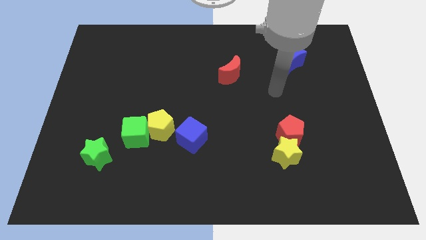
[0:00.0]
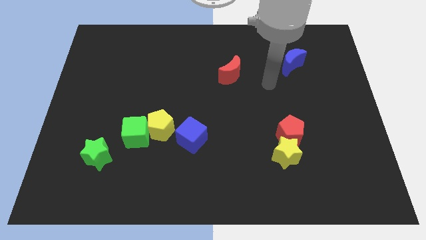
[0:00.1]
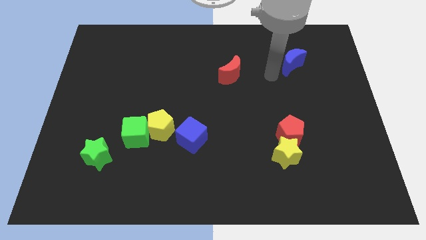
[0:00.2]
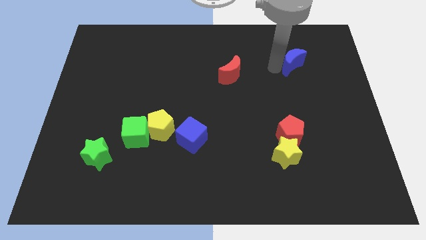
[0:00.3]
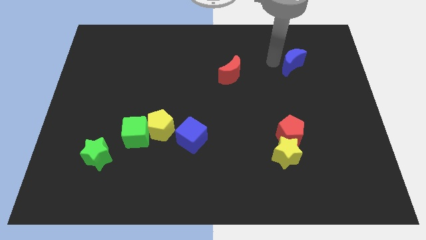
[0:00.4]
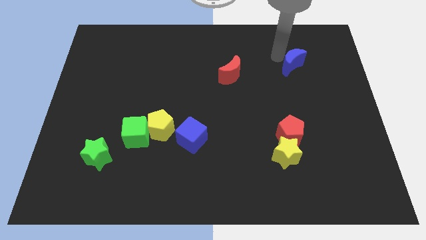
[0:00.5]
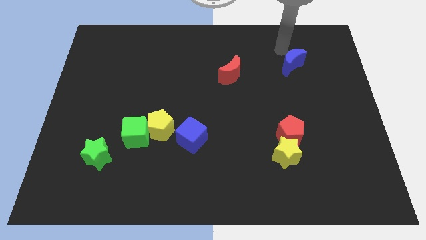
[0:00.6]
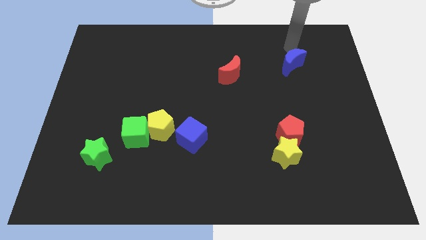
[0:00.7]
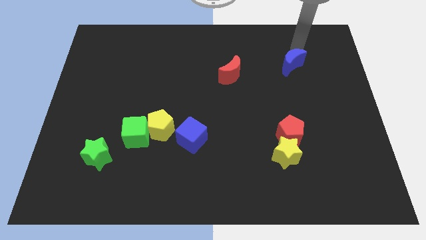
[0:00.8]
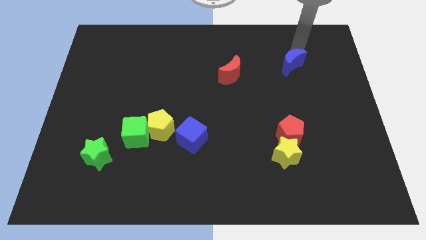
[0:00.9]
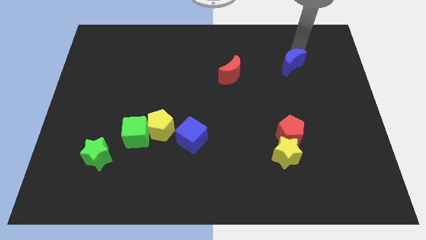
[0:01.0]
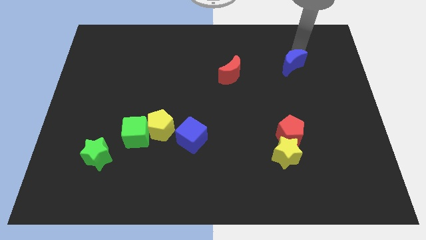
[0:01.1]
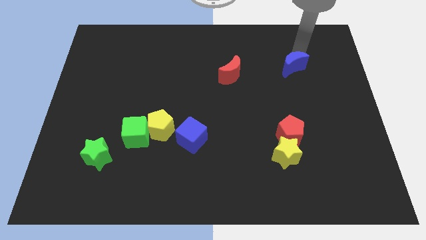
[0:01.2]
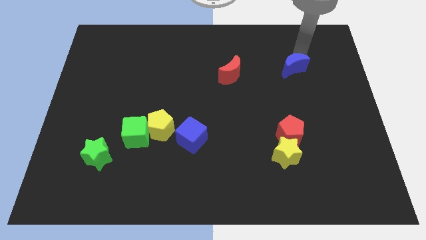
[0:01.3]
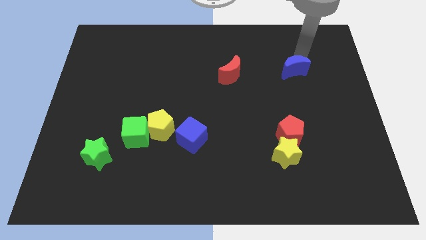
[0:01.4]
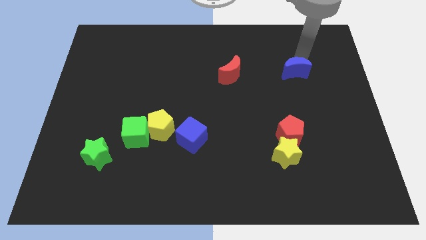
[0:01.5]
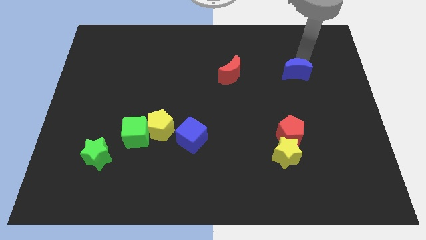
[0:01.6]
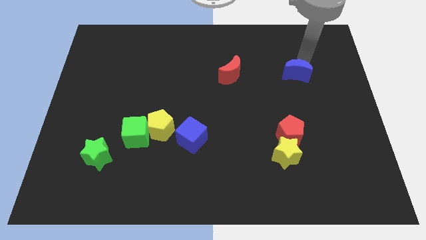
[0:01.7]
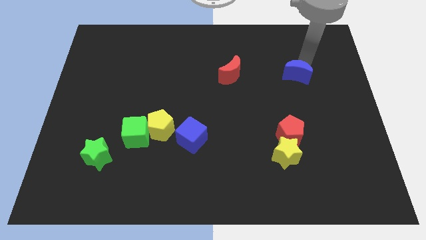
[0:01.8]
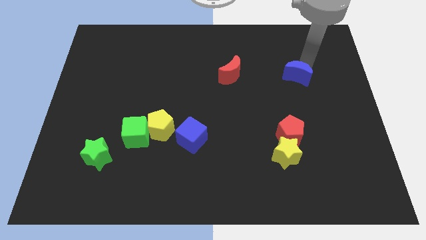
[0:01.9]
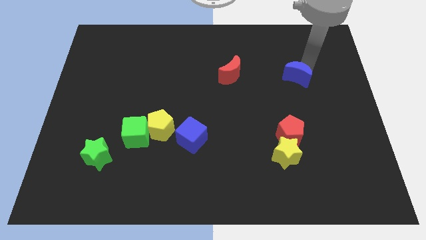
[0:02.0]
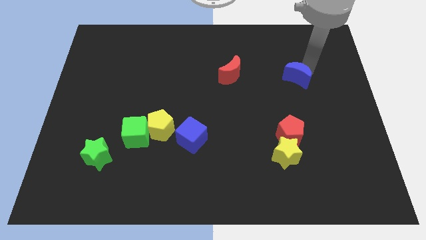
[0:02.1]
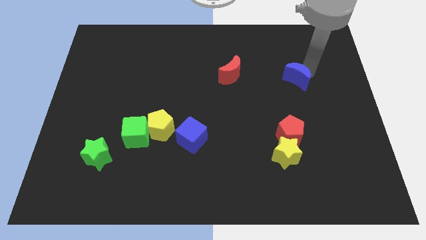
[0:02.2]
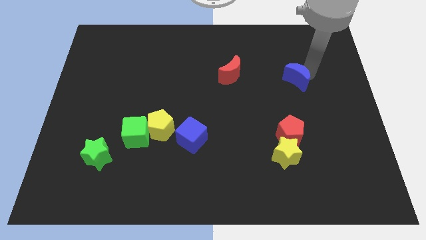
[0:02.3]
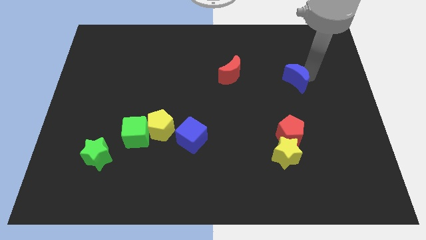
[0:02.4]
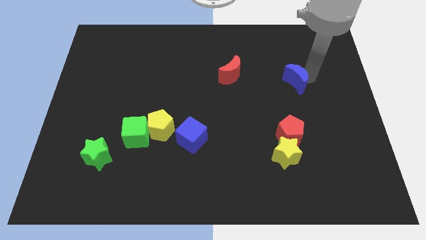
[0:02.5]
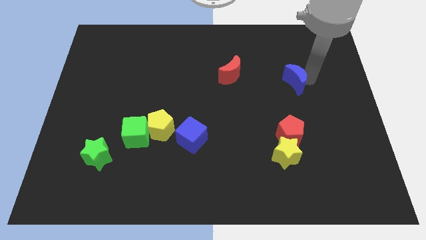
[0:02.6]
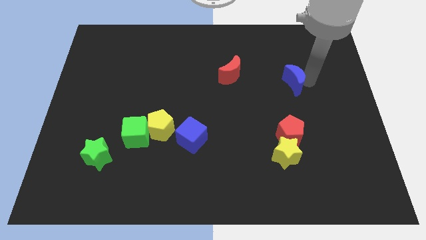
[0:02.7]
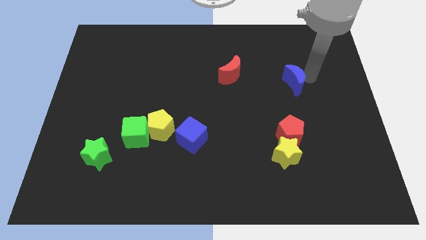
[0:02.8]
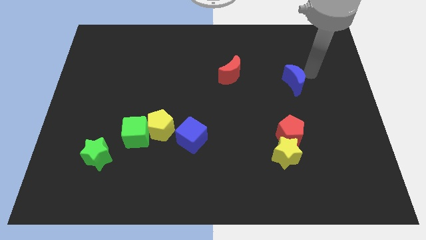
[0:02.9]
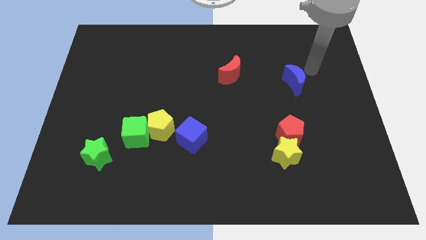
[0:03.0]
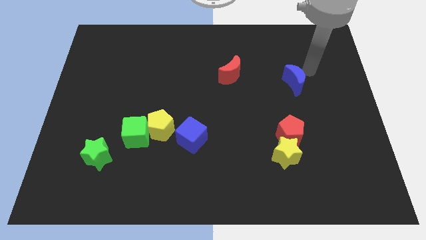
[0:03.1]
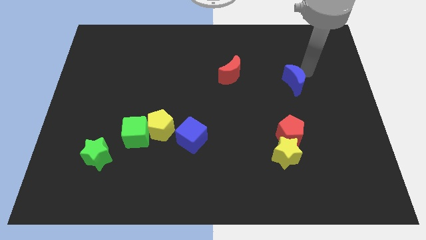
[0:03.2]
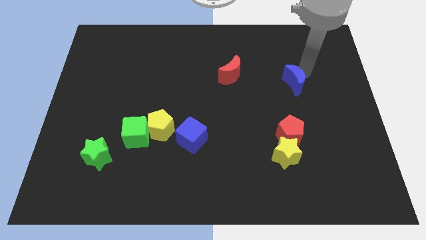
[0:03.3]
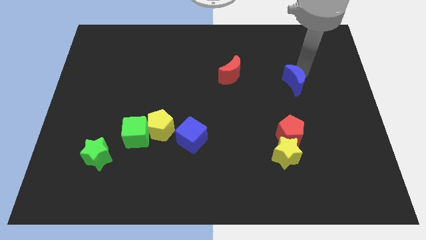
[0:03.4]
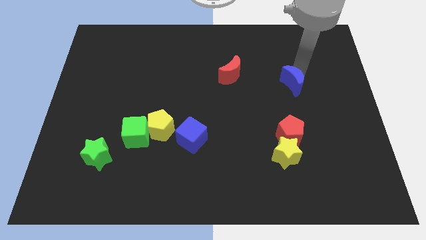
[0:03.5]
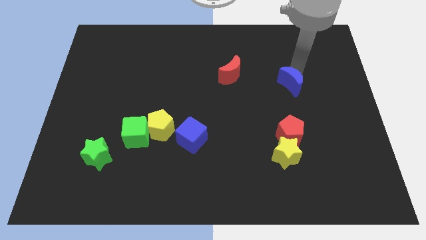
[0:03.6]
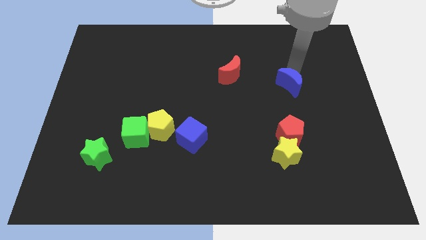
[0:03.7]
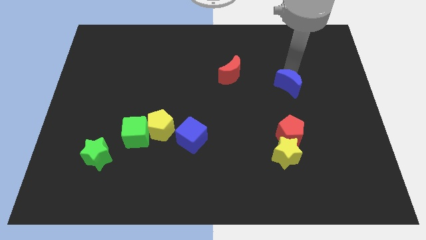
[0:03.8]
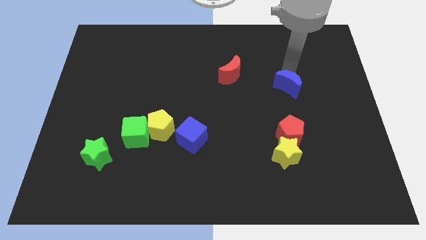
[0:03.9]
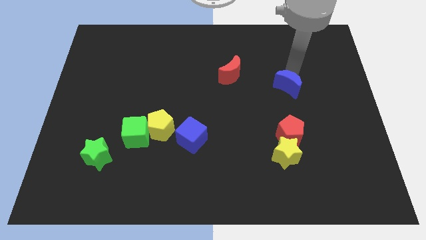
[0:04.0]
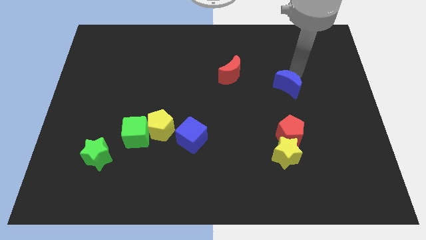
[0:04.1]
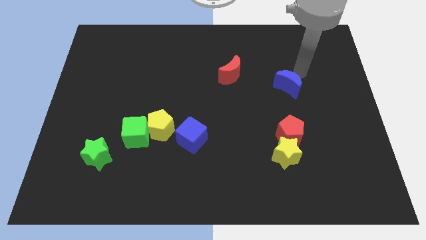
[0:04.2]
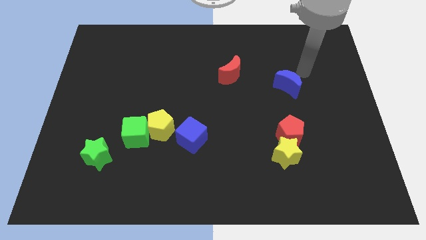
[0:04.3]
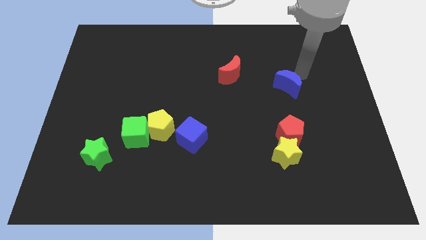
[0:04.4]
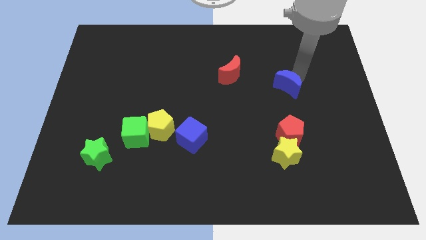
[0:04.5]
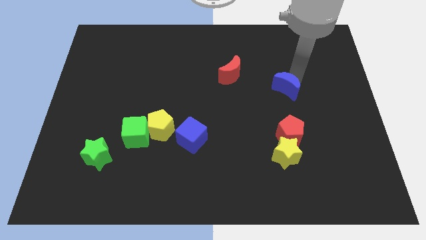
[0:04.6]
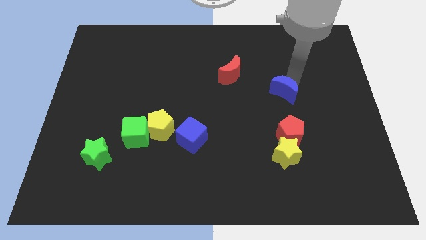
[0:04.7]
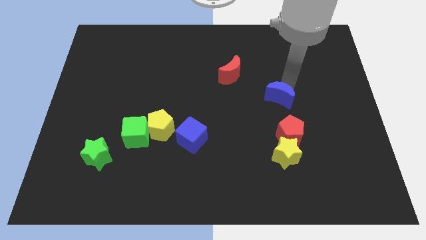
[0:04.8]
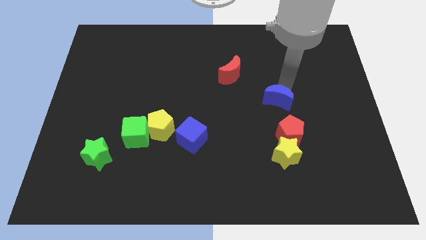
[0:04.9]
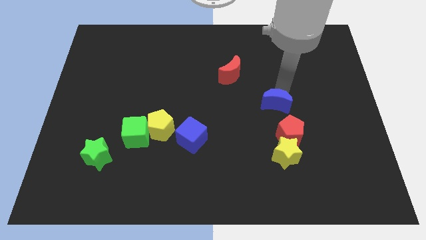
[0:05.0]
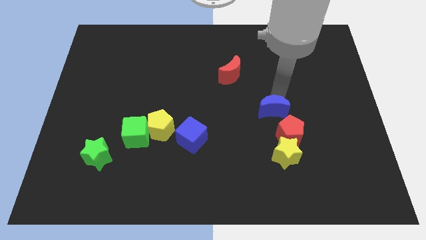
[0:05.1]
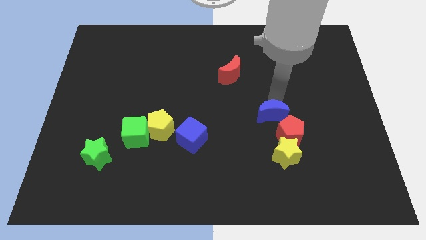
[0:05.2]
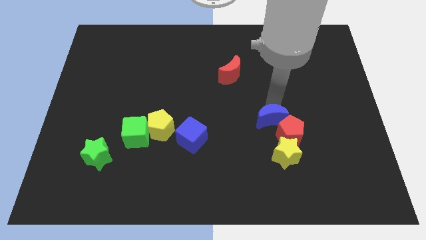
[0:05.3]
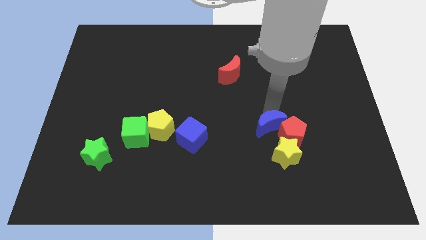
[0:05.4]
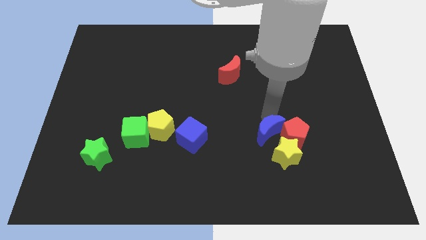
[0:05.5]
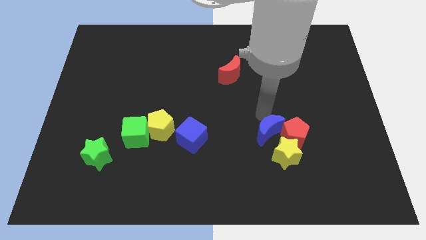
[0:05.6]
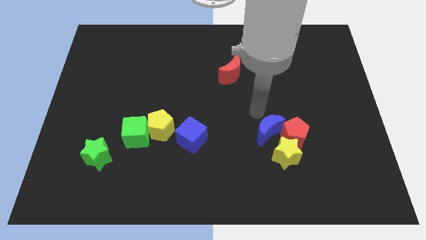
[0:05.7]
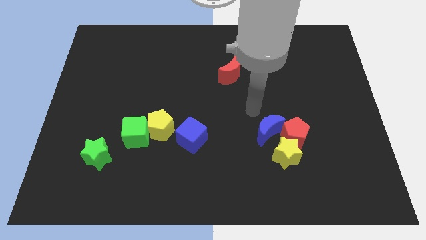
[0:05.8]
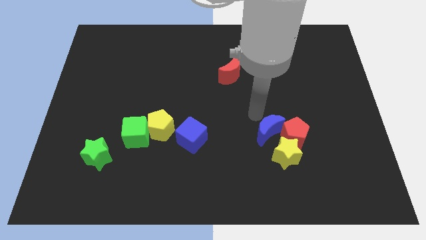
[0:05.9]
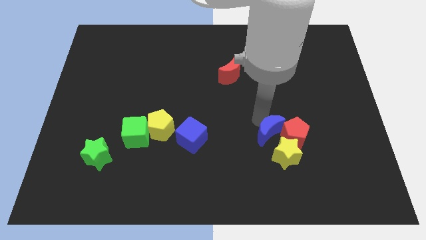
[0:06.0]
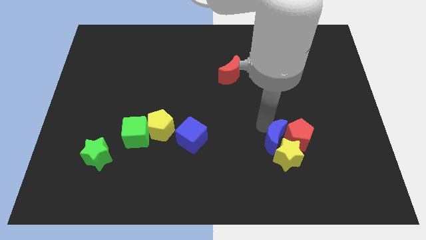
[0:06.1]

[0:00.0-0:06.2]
push the blue moon close to the yellow star

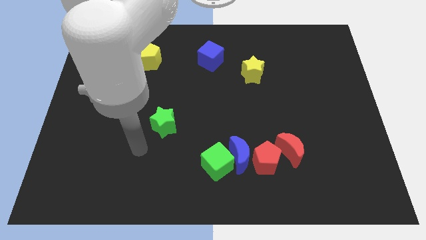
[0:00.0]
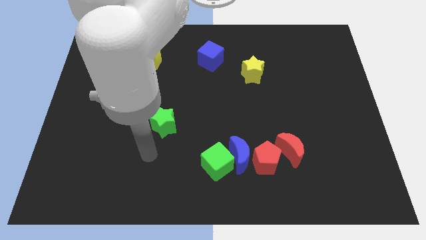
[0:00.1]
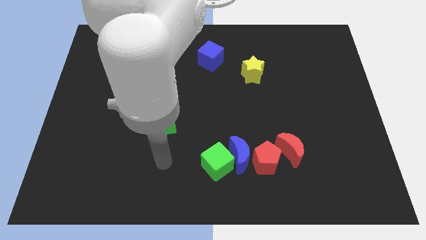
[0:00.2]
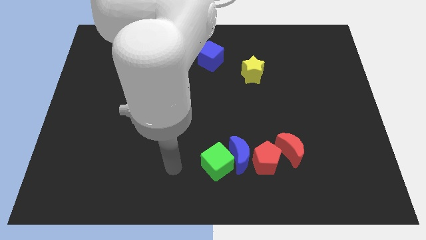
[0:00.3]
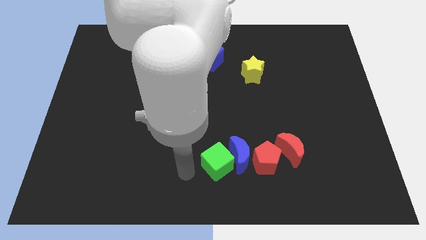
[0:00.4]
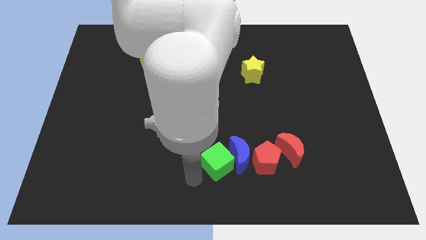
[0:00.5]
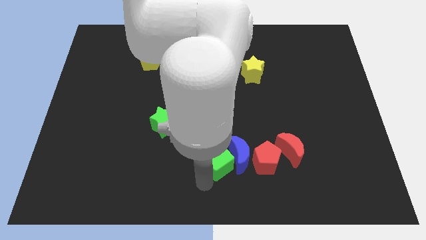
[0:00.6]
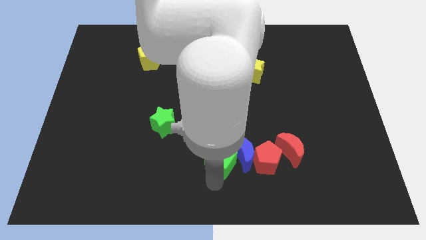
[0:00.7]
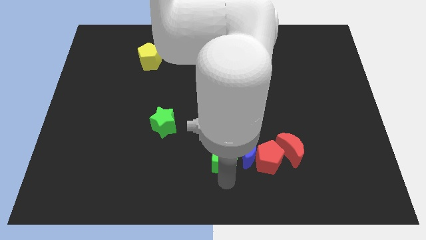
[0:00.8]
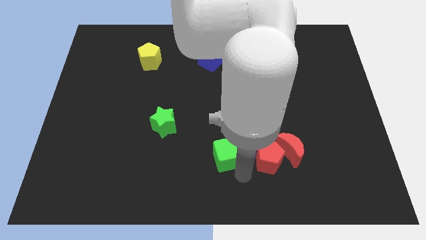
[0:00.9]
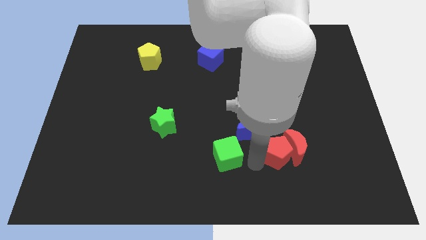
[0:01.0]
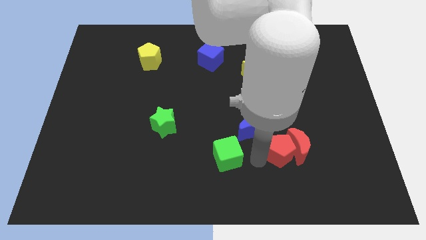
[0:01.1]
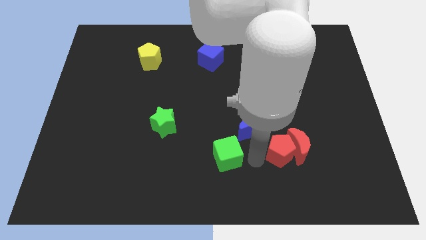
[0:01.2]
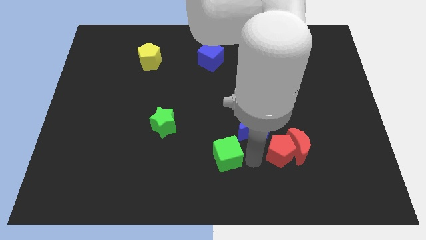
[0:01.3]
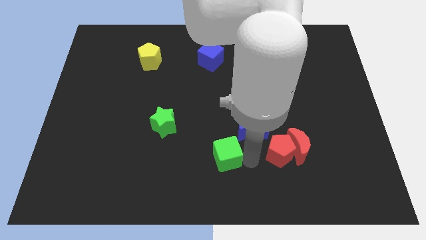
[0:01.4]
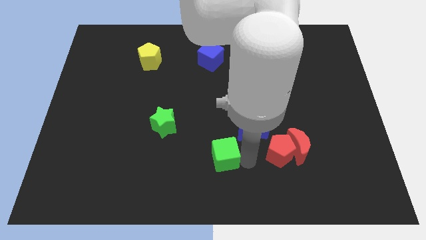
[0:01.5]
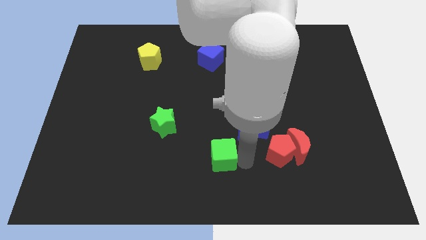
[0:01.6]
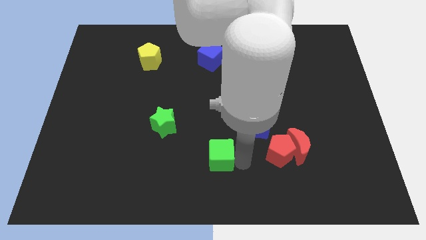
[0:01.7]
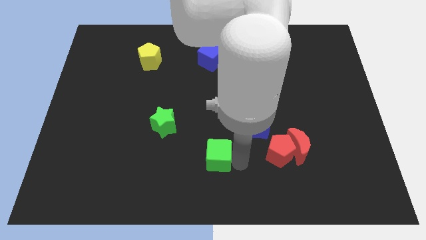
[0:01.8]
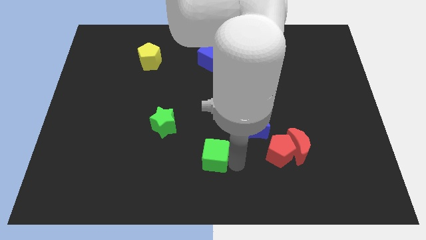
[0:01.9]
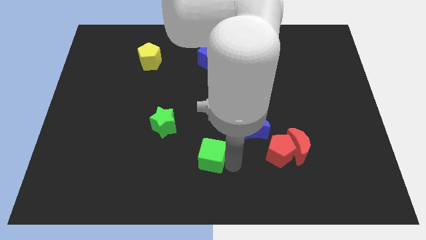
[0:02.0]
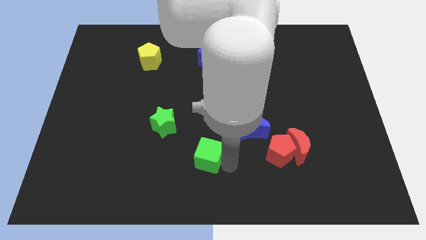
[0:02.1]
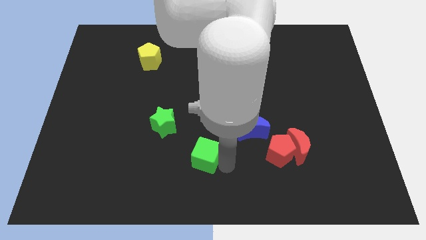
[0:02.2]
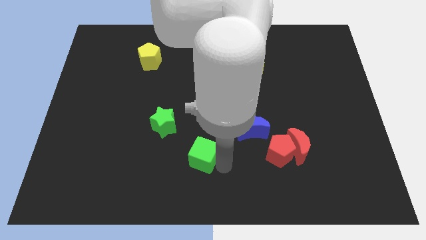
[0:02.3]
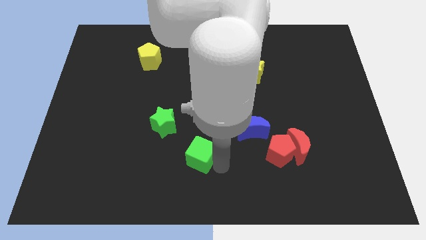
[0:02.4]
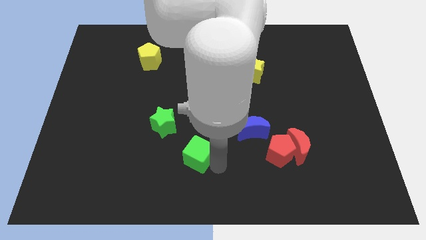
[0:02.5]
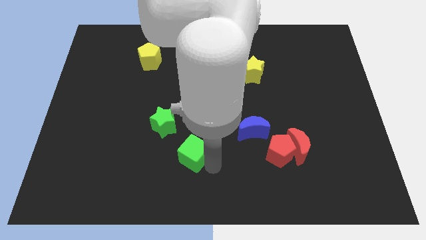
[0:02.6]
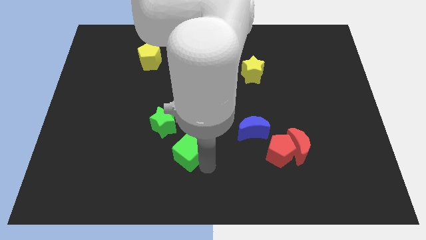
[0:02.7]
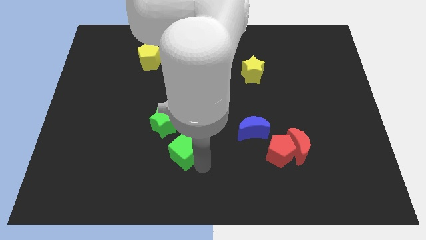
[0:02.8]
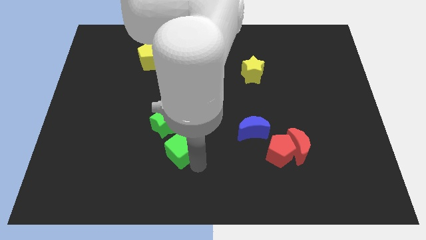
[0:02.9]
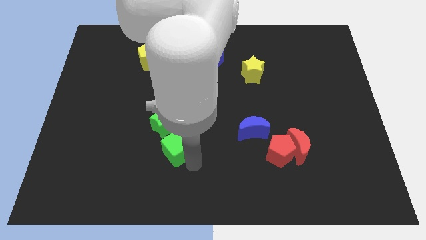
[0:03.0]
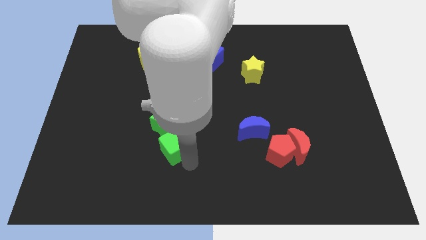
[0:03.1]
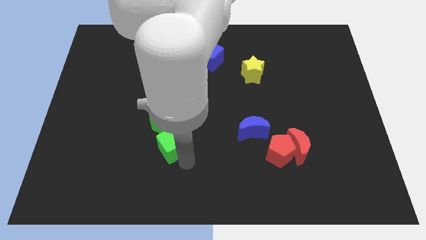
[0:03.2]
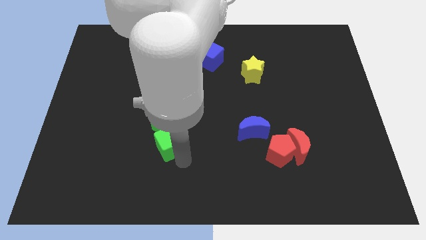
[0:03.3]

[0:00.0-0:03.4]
push the green cube towards the green star
